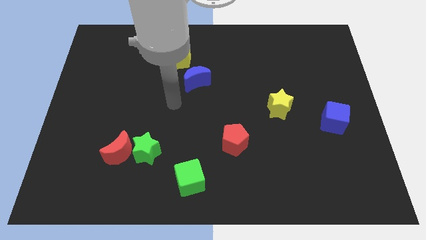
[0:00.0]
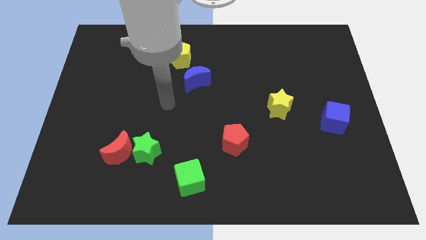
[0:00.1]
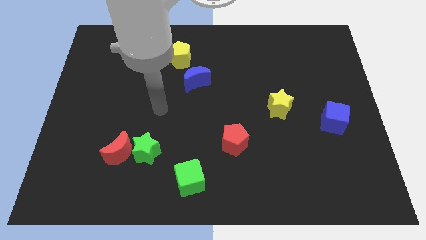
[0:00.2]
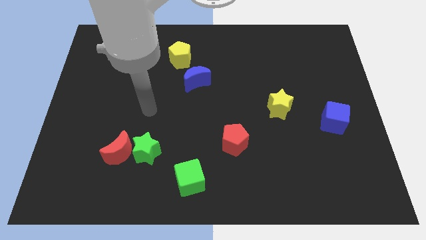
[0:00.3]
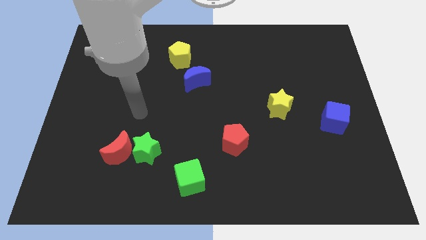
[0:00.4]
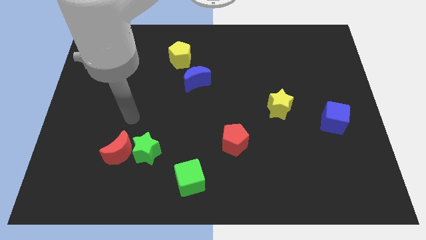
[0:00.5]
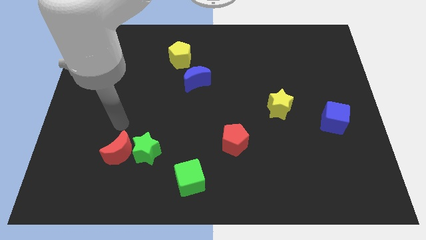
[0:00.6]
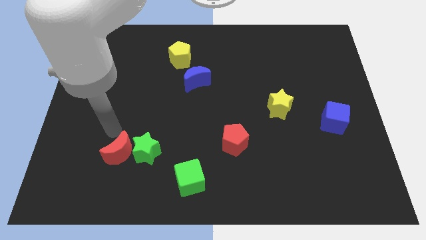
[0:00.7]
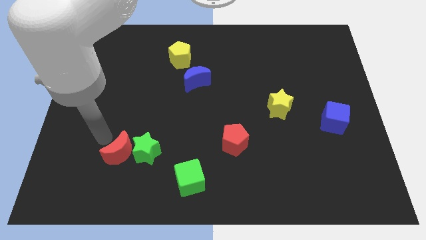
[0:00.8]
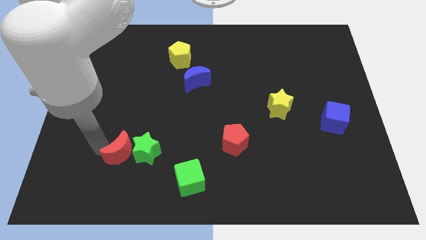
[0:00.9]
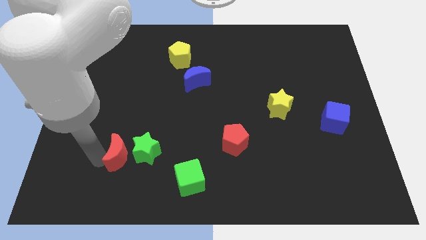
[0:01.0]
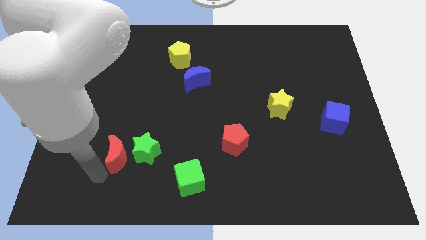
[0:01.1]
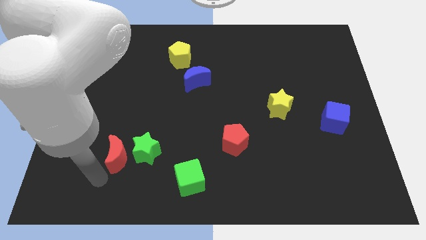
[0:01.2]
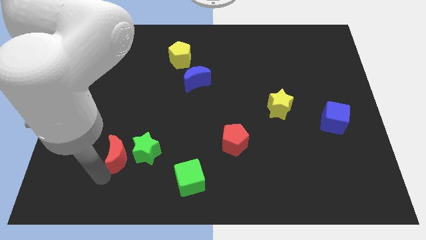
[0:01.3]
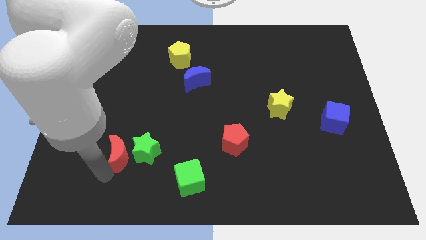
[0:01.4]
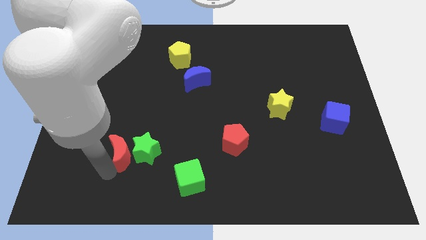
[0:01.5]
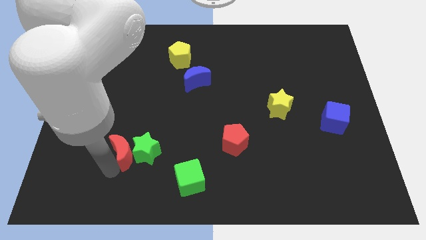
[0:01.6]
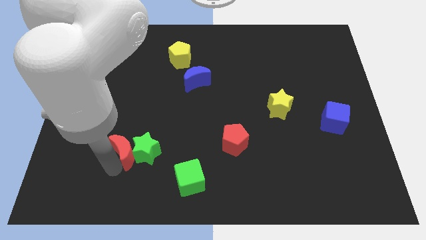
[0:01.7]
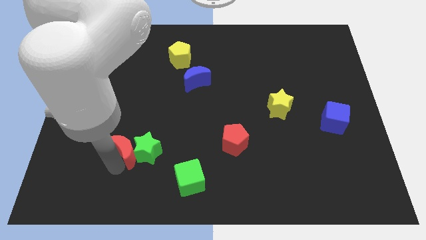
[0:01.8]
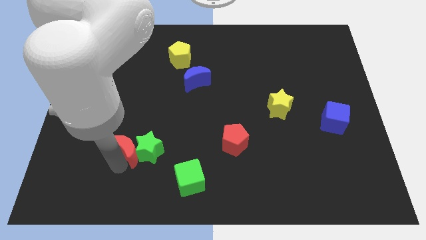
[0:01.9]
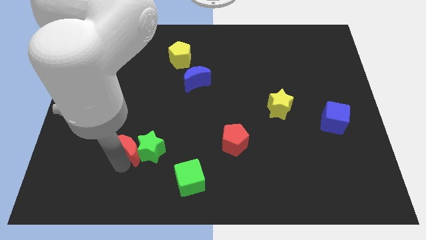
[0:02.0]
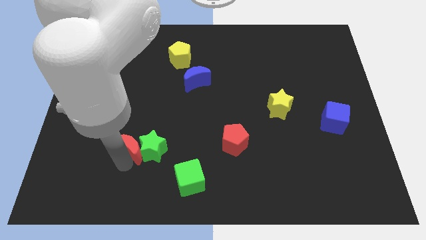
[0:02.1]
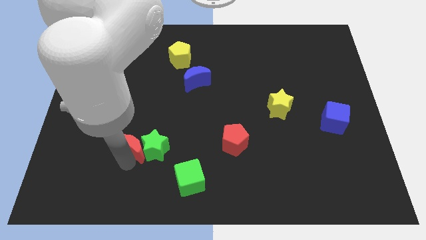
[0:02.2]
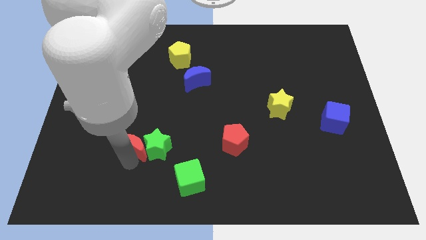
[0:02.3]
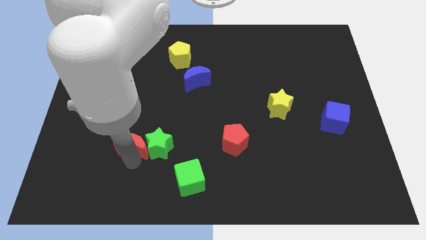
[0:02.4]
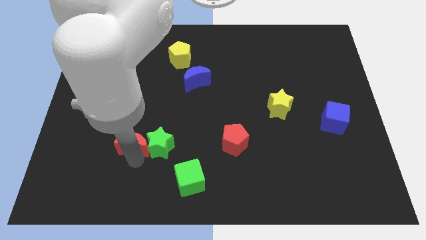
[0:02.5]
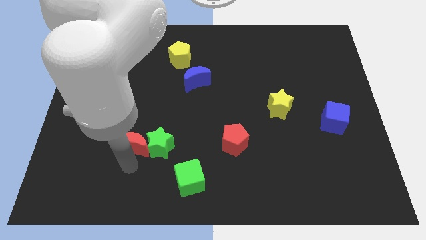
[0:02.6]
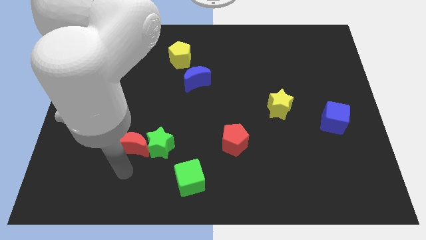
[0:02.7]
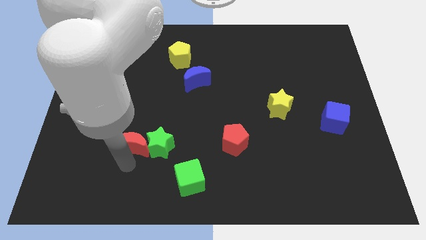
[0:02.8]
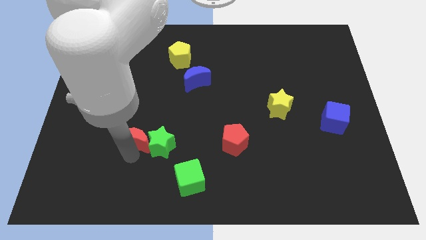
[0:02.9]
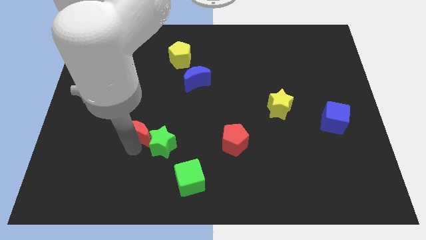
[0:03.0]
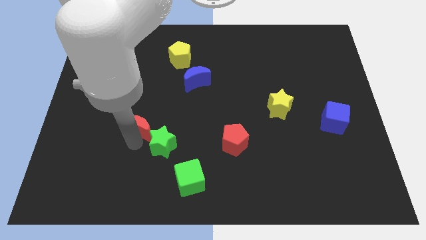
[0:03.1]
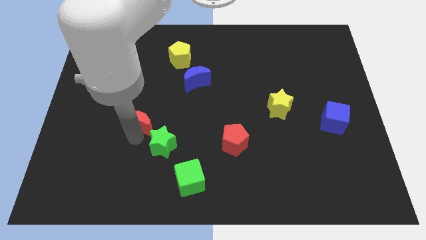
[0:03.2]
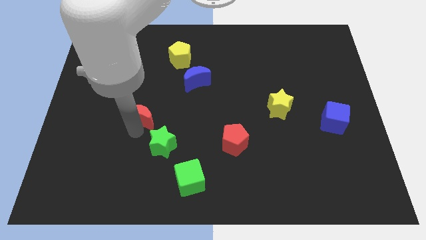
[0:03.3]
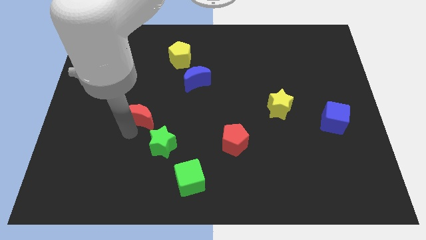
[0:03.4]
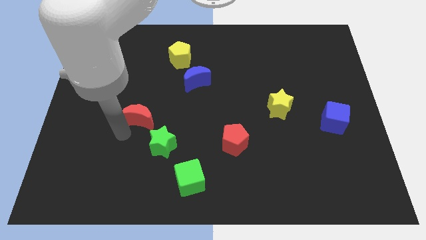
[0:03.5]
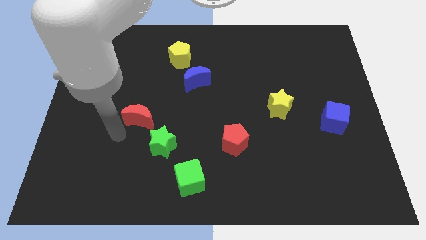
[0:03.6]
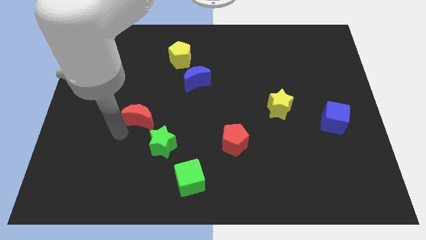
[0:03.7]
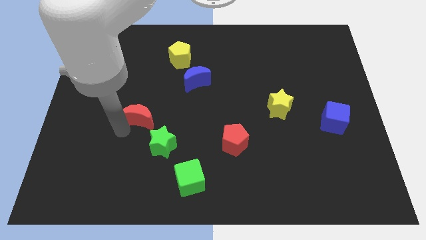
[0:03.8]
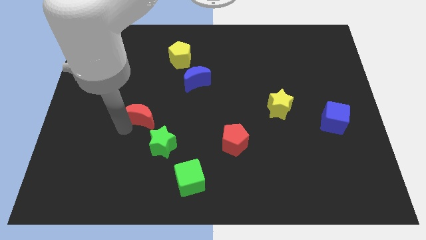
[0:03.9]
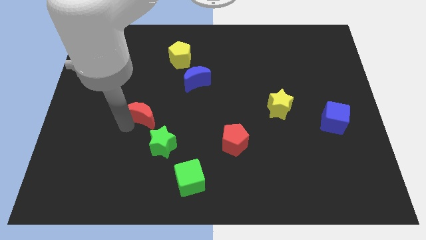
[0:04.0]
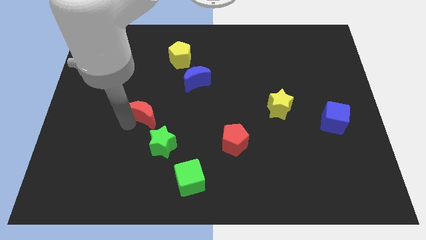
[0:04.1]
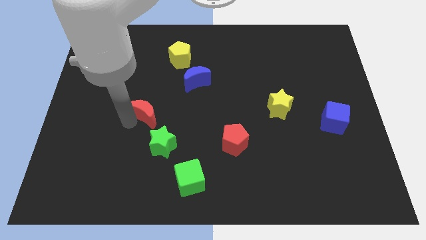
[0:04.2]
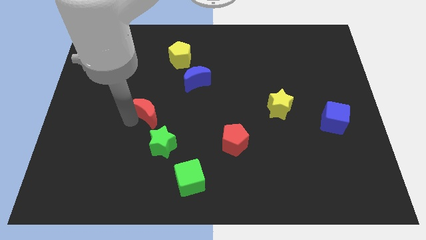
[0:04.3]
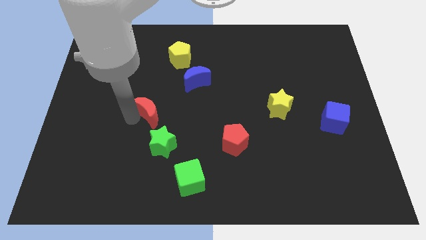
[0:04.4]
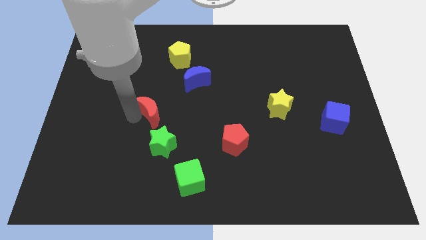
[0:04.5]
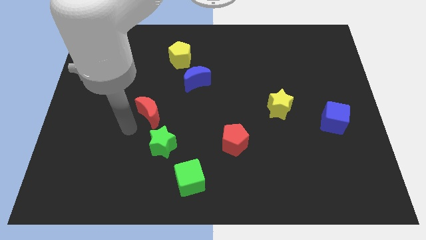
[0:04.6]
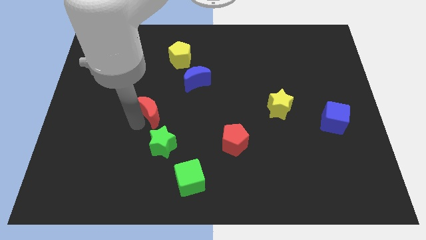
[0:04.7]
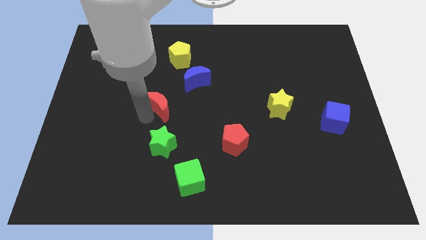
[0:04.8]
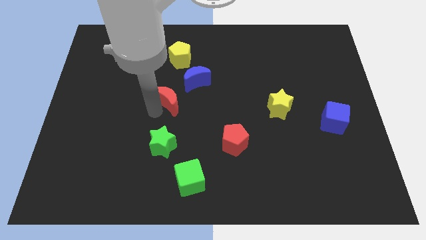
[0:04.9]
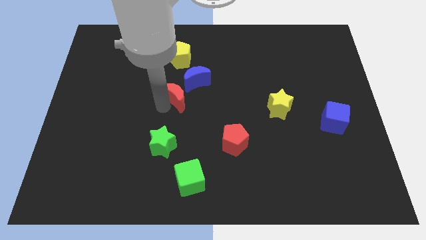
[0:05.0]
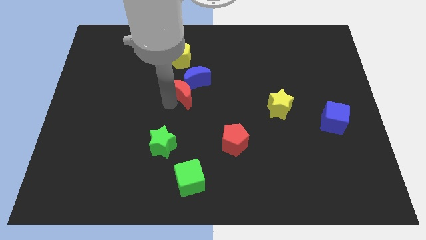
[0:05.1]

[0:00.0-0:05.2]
push the red moon close to the blue moon

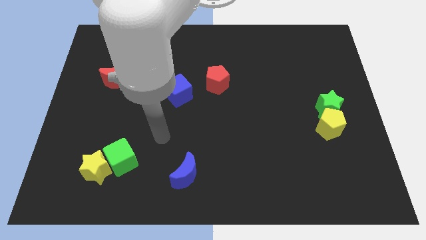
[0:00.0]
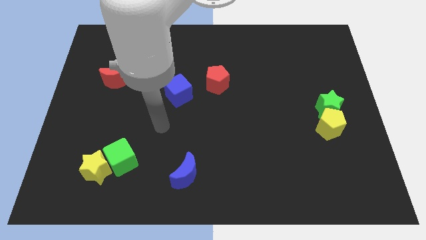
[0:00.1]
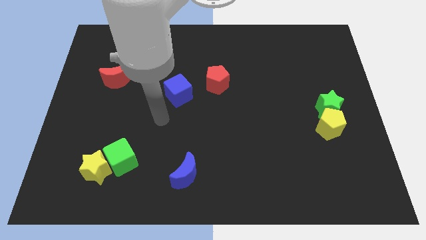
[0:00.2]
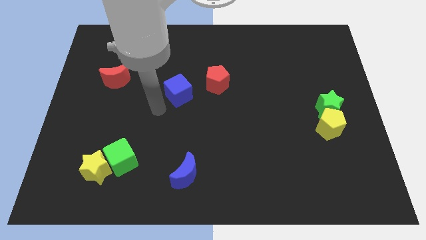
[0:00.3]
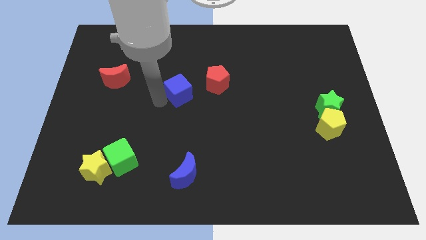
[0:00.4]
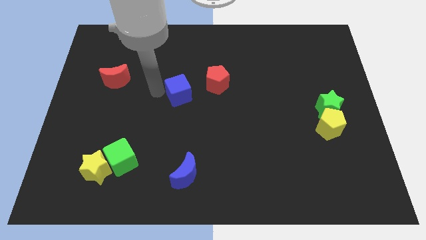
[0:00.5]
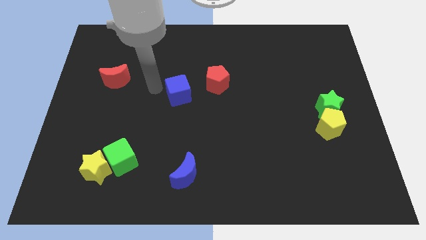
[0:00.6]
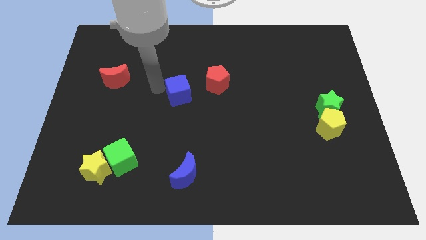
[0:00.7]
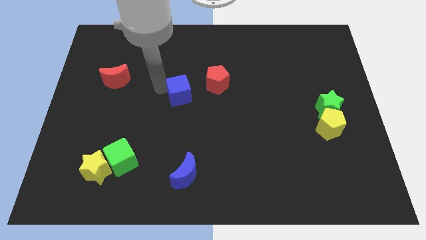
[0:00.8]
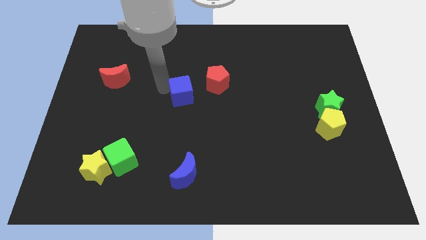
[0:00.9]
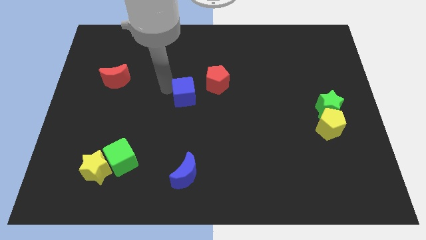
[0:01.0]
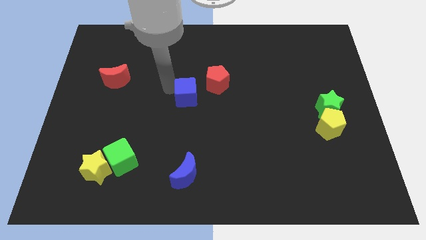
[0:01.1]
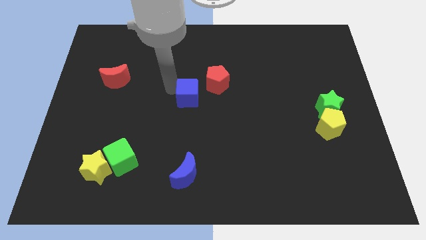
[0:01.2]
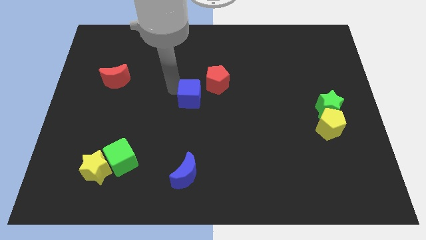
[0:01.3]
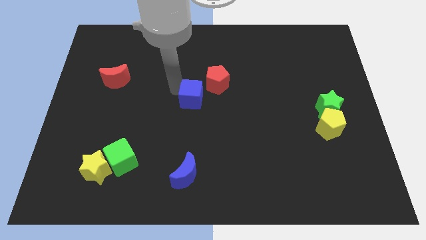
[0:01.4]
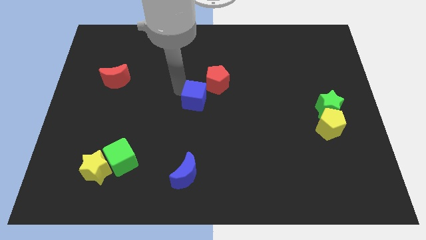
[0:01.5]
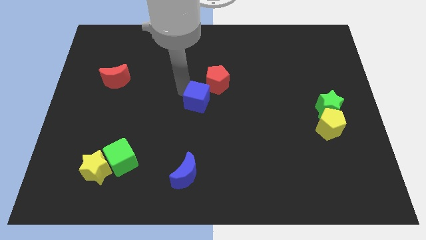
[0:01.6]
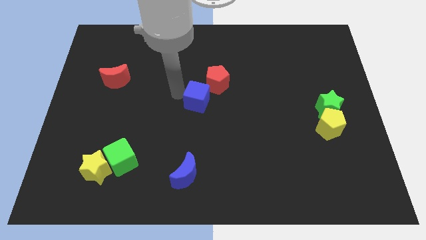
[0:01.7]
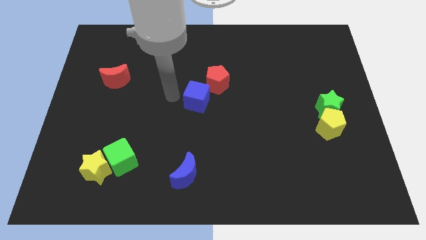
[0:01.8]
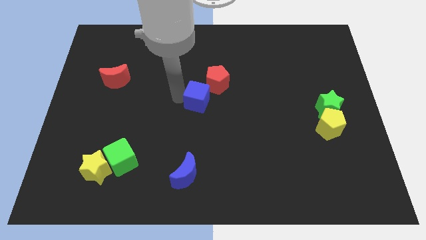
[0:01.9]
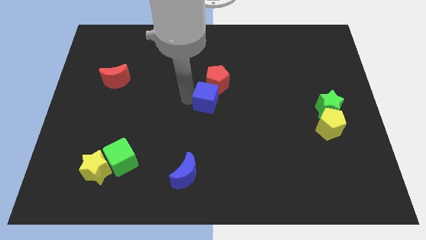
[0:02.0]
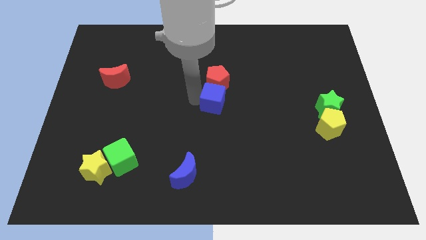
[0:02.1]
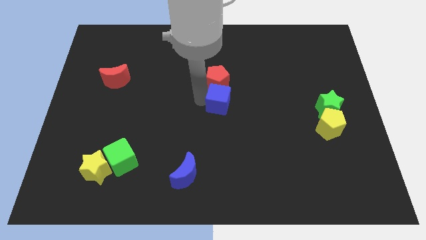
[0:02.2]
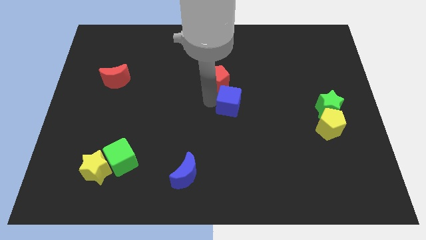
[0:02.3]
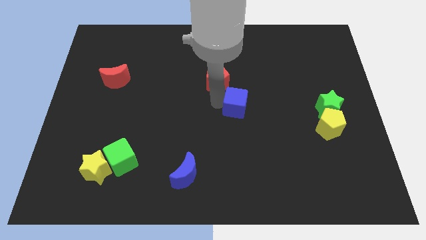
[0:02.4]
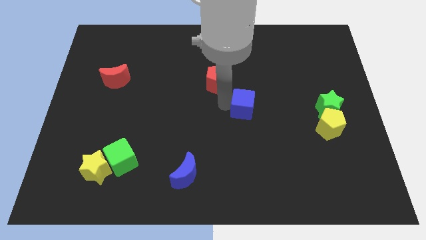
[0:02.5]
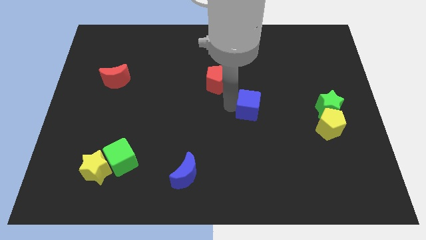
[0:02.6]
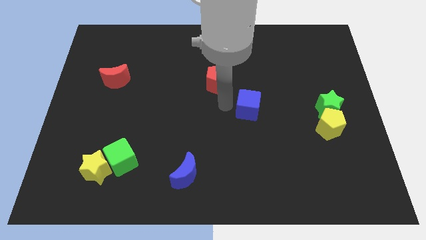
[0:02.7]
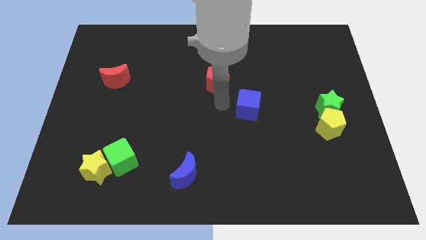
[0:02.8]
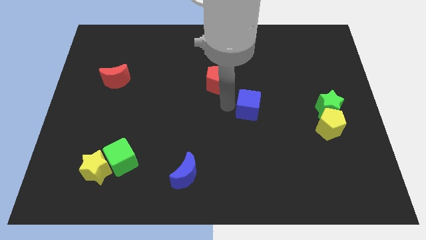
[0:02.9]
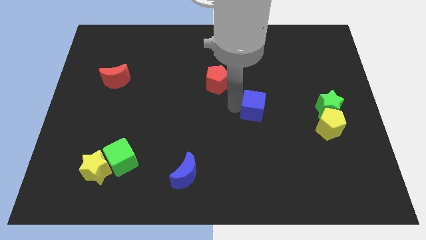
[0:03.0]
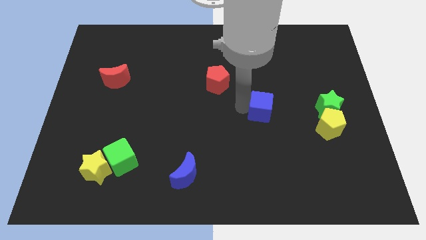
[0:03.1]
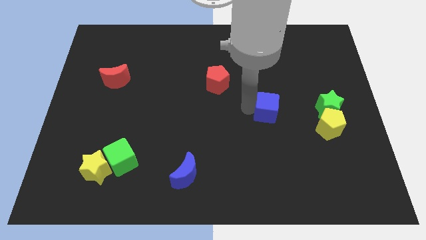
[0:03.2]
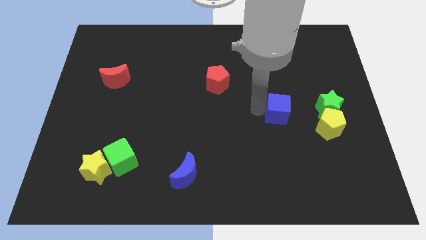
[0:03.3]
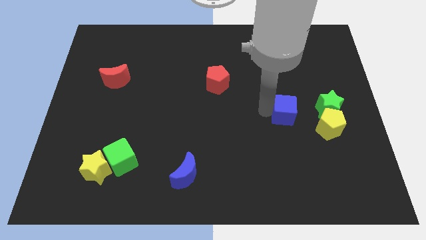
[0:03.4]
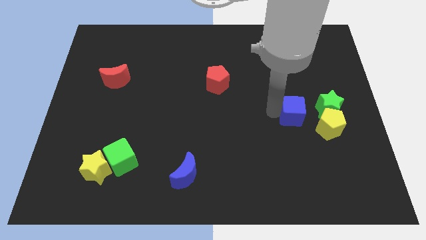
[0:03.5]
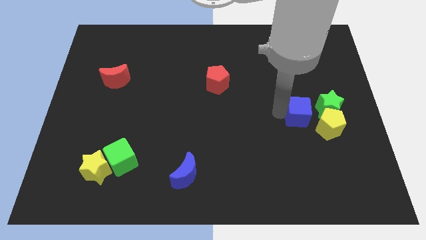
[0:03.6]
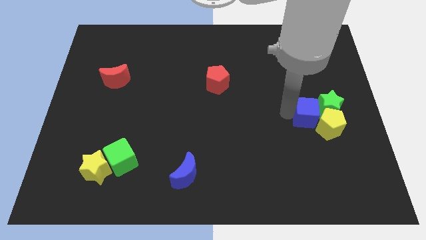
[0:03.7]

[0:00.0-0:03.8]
push the blue cube to the yellow pentagon
